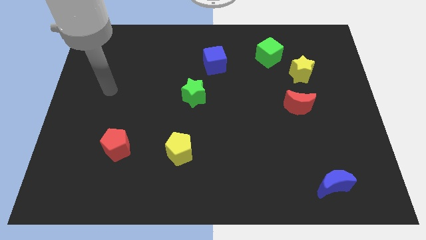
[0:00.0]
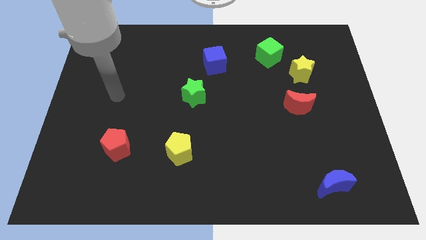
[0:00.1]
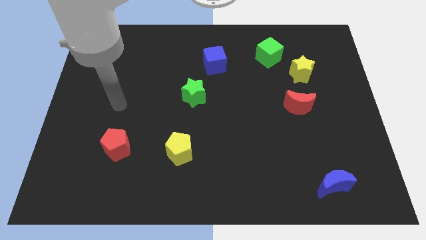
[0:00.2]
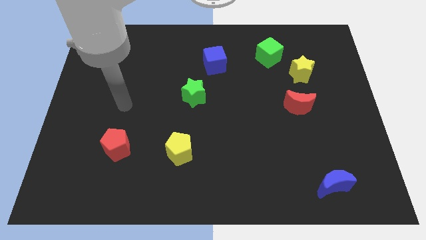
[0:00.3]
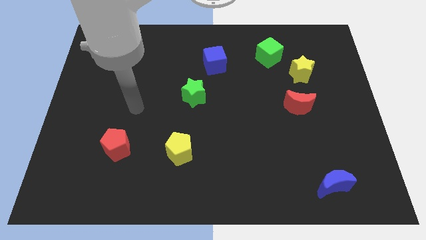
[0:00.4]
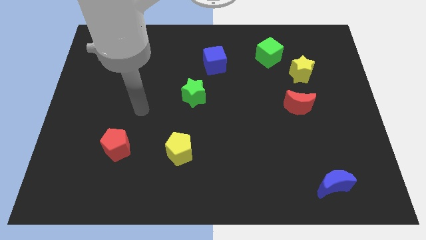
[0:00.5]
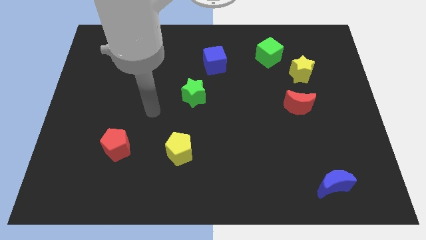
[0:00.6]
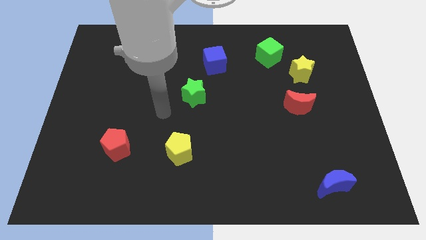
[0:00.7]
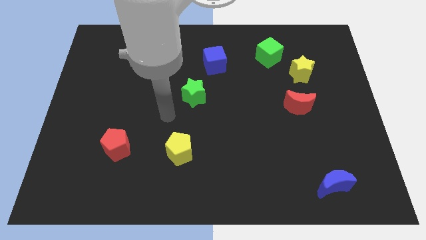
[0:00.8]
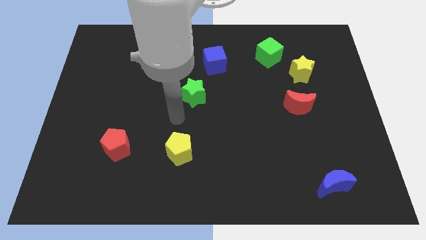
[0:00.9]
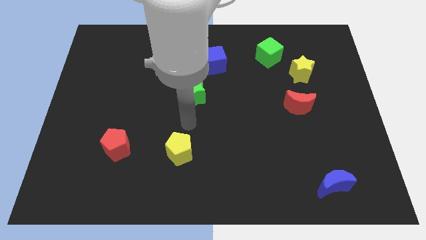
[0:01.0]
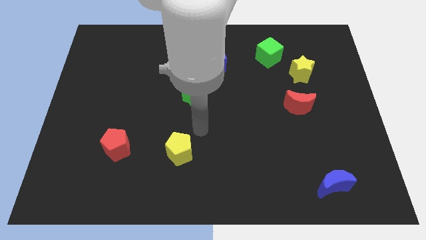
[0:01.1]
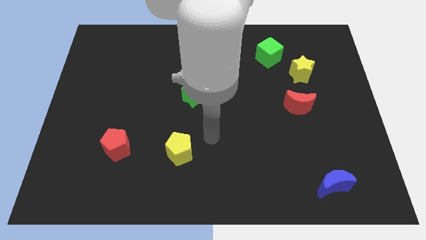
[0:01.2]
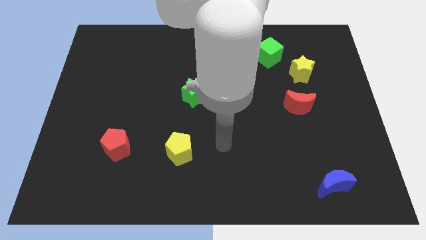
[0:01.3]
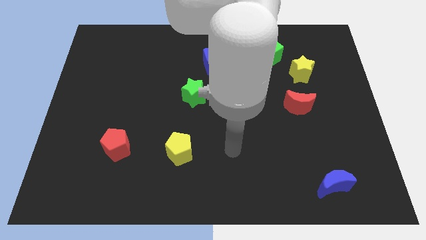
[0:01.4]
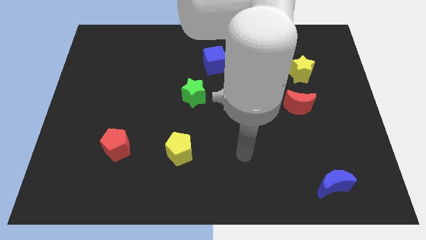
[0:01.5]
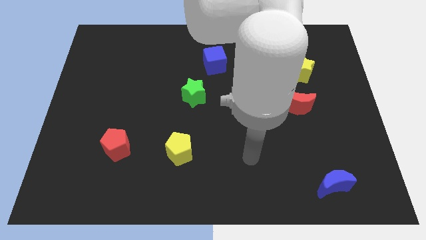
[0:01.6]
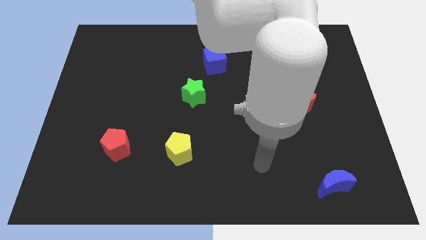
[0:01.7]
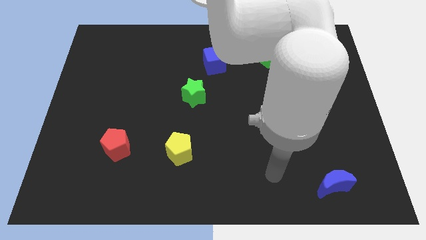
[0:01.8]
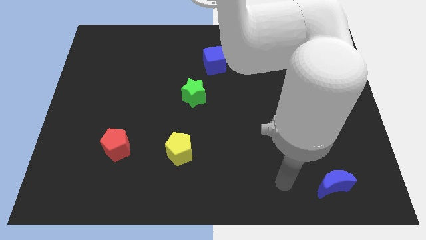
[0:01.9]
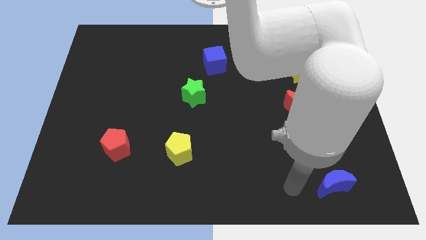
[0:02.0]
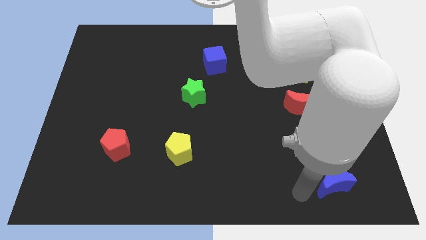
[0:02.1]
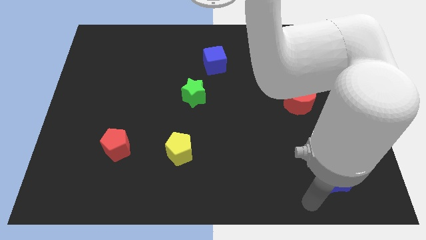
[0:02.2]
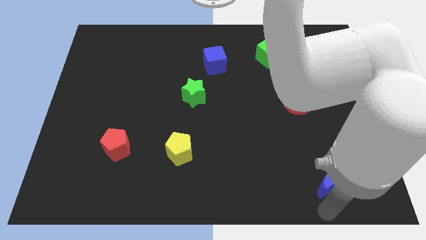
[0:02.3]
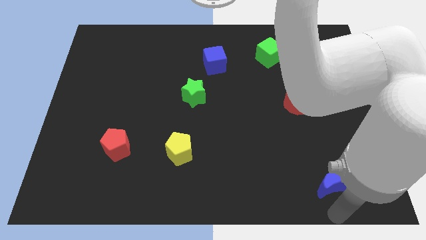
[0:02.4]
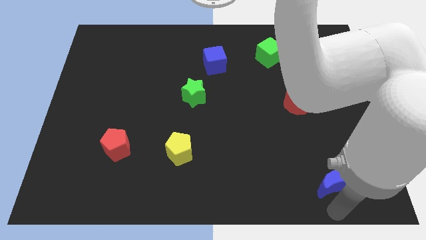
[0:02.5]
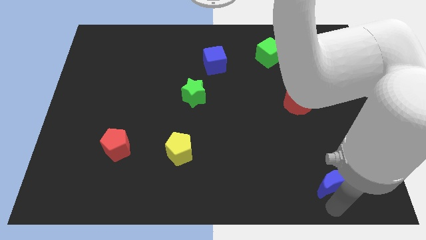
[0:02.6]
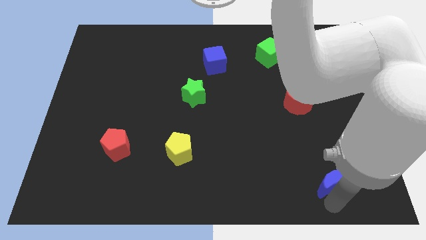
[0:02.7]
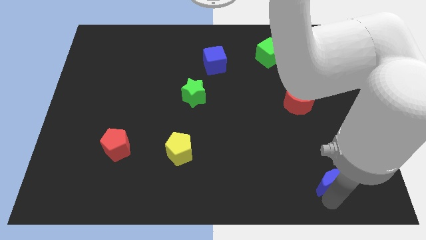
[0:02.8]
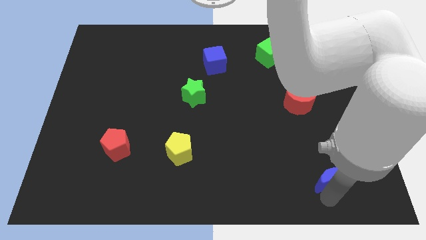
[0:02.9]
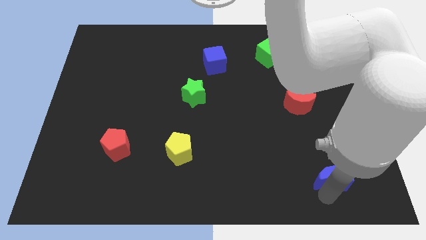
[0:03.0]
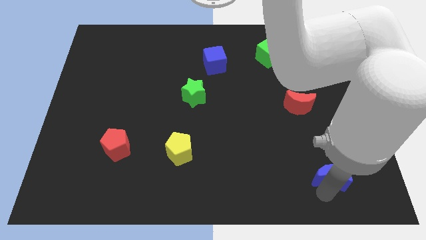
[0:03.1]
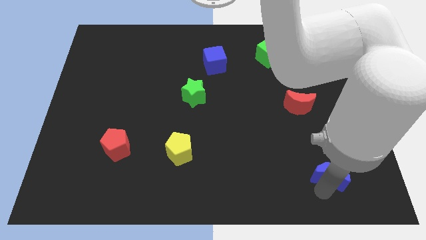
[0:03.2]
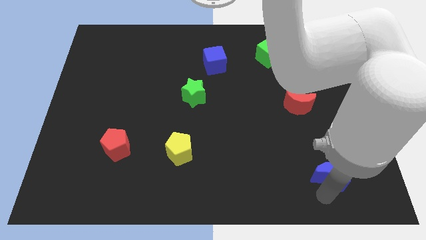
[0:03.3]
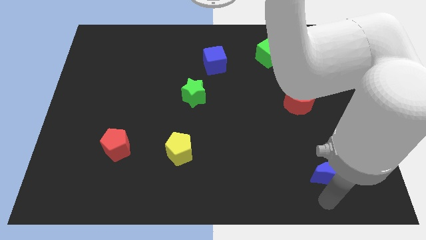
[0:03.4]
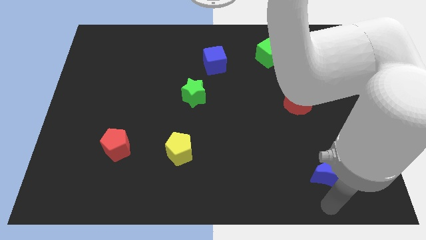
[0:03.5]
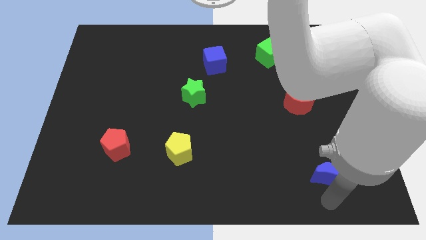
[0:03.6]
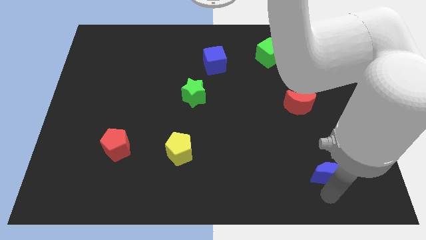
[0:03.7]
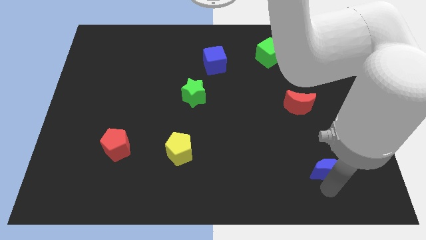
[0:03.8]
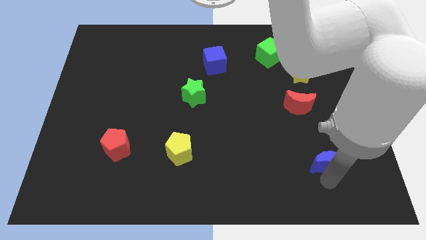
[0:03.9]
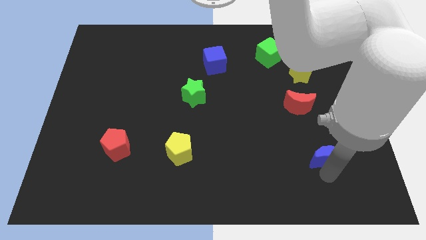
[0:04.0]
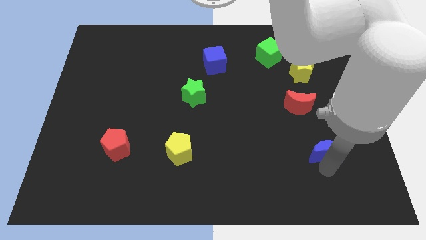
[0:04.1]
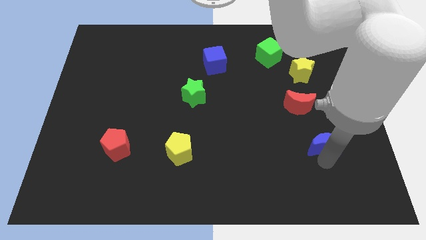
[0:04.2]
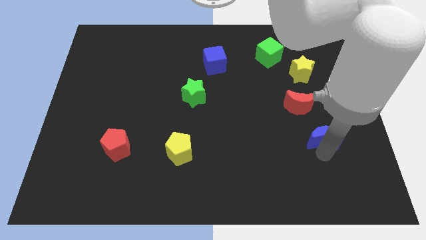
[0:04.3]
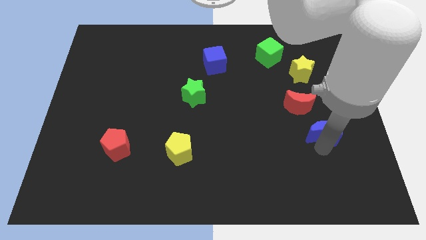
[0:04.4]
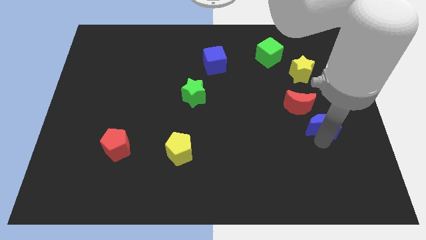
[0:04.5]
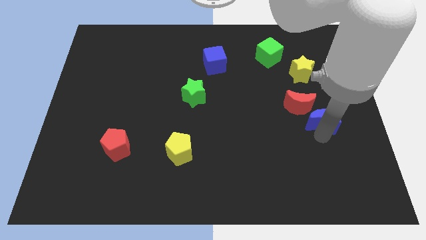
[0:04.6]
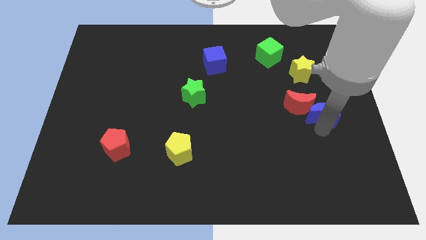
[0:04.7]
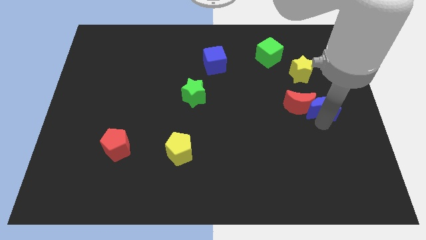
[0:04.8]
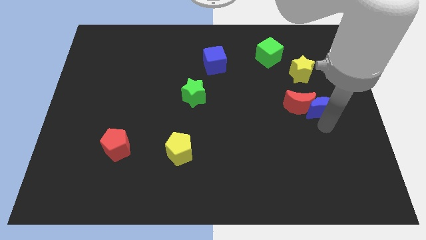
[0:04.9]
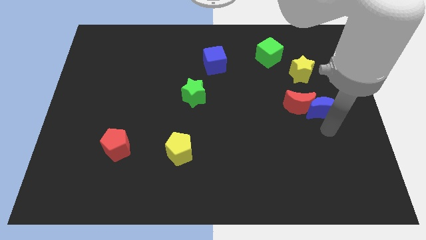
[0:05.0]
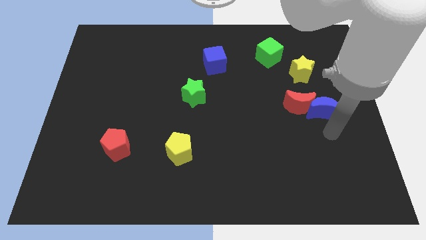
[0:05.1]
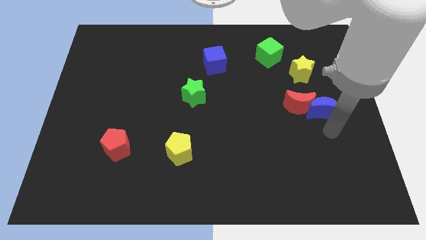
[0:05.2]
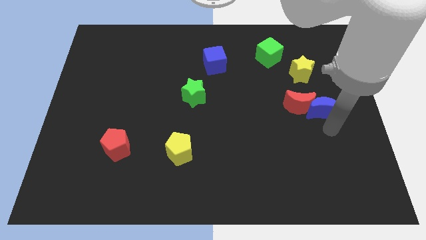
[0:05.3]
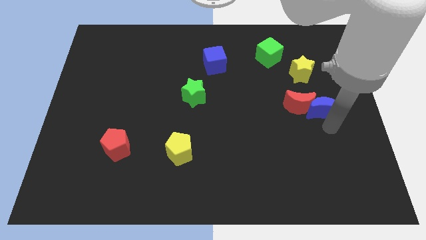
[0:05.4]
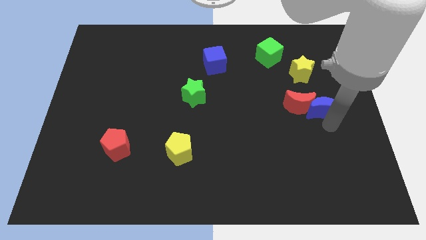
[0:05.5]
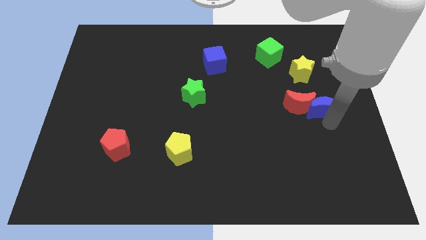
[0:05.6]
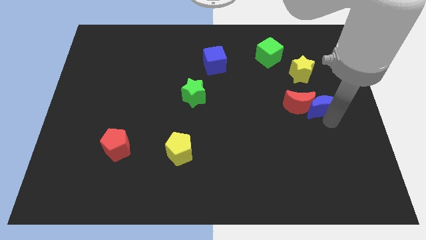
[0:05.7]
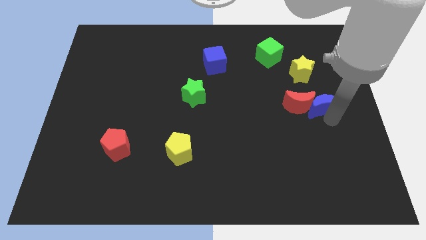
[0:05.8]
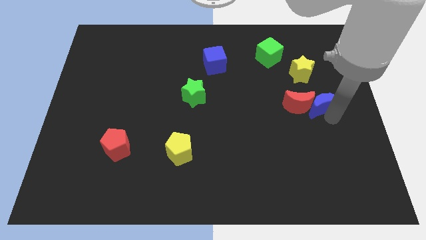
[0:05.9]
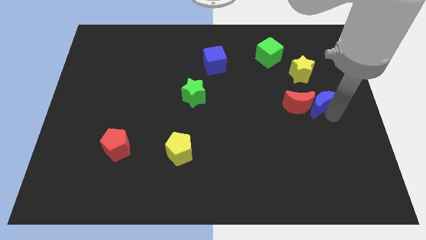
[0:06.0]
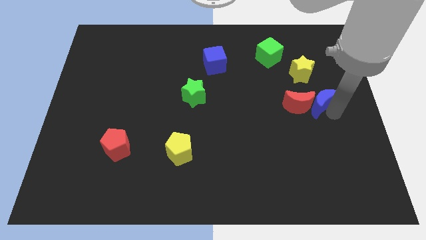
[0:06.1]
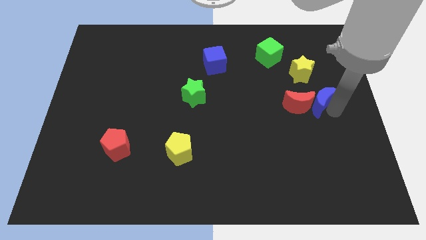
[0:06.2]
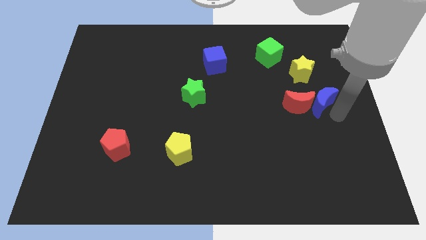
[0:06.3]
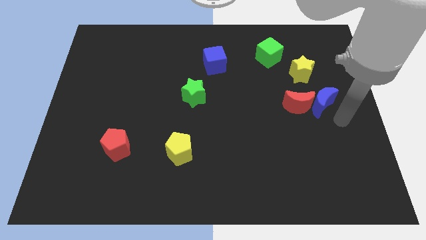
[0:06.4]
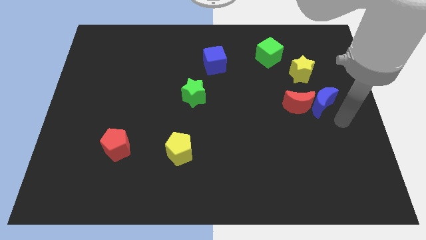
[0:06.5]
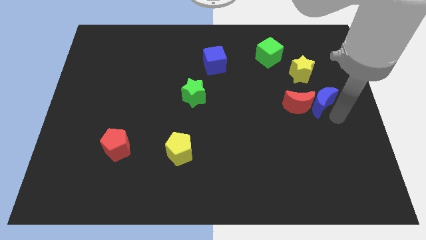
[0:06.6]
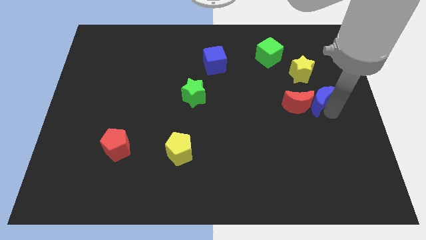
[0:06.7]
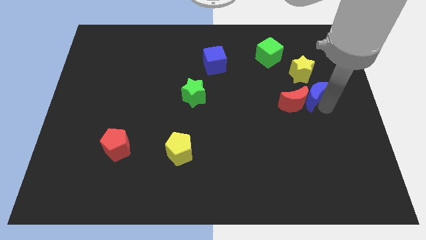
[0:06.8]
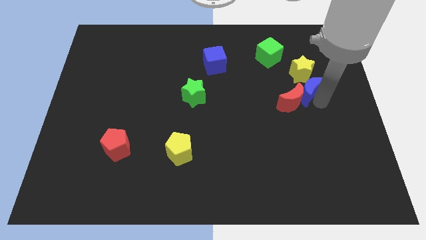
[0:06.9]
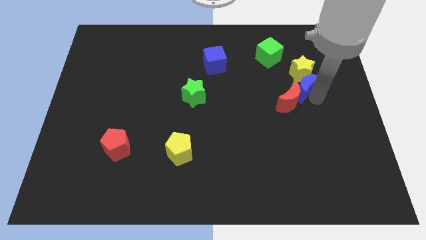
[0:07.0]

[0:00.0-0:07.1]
move the blue moon close to the yellow star
